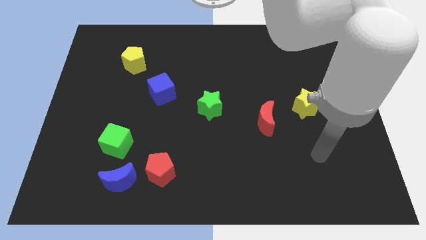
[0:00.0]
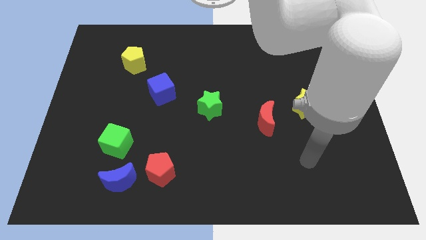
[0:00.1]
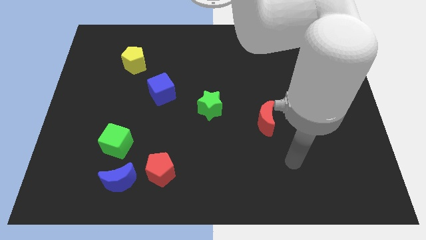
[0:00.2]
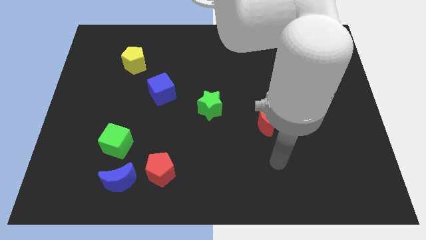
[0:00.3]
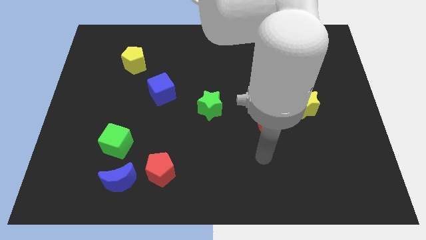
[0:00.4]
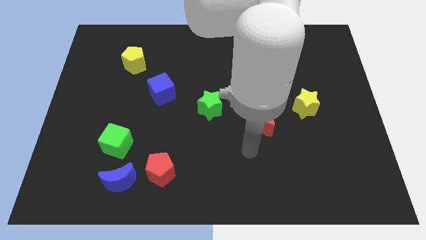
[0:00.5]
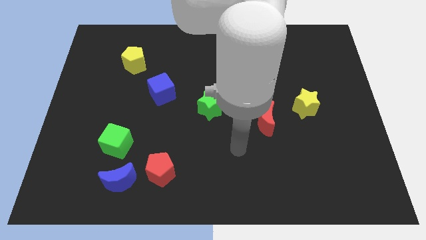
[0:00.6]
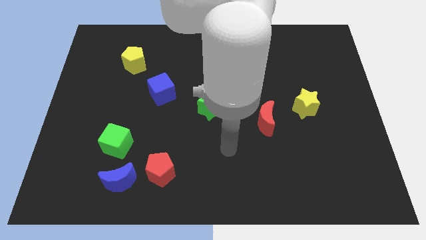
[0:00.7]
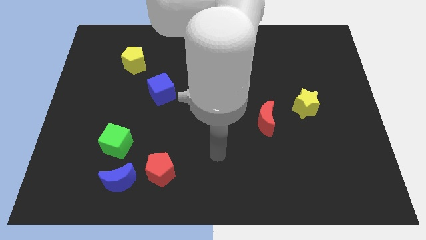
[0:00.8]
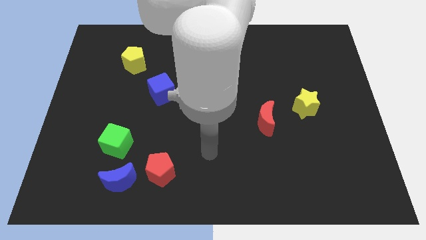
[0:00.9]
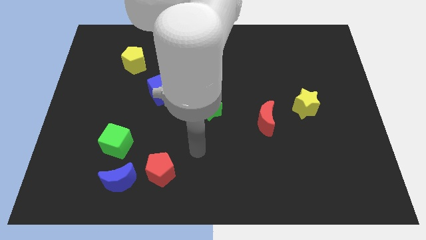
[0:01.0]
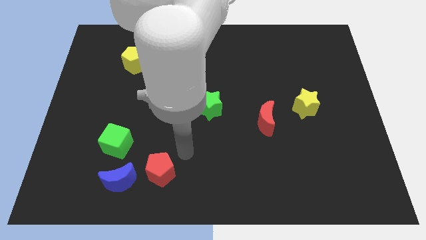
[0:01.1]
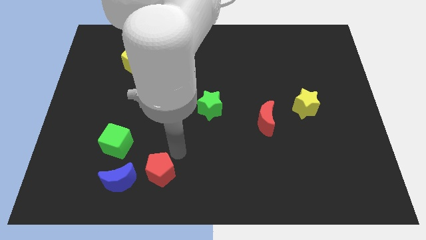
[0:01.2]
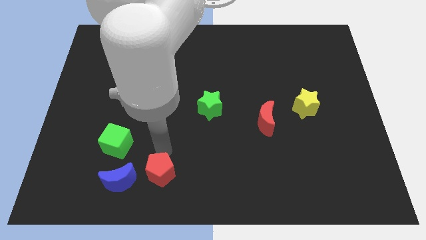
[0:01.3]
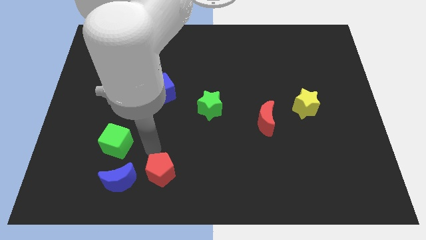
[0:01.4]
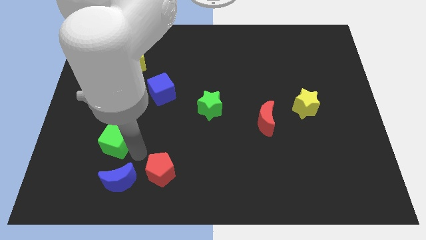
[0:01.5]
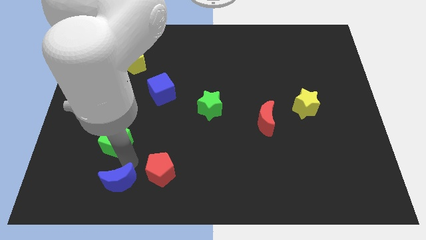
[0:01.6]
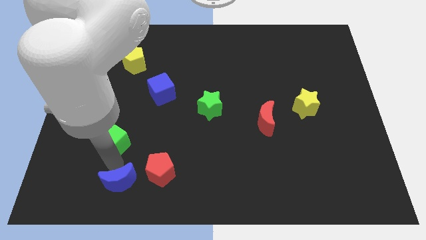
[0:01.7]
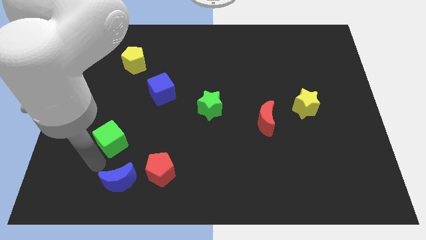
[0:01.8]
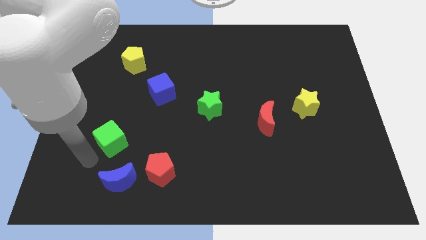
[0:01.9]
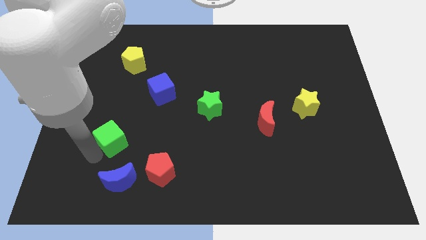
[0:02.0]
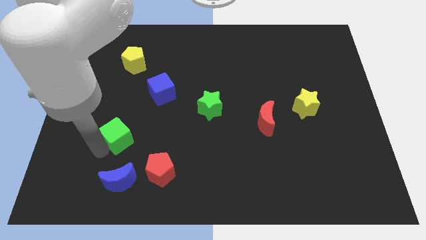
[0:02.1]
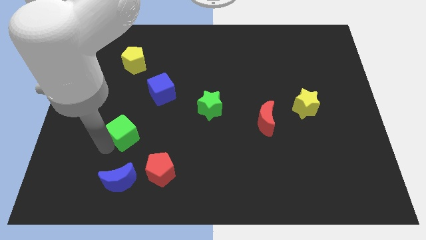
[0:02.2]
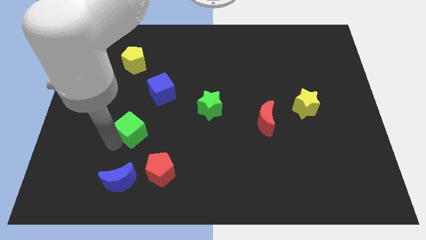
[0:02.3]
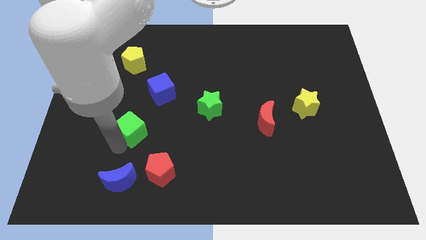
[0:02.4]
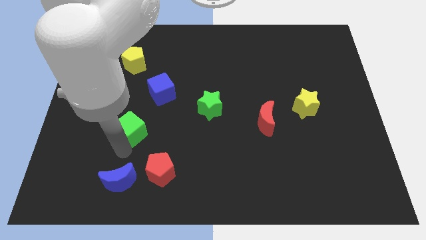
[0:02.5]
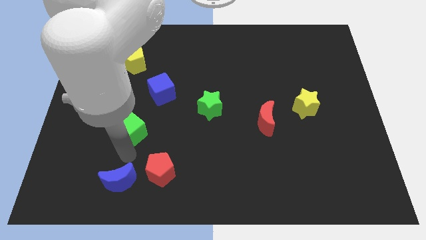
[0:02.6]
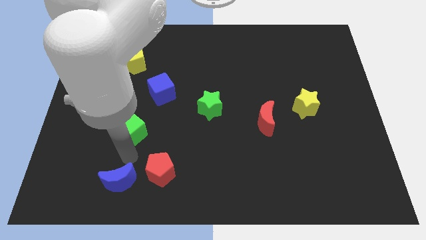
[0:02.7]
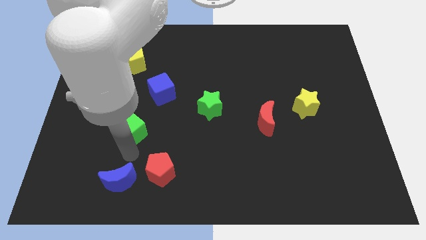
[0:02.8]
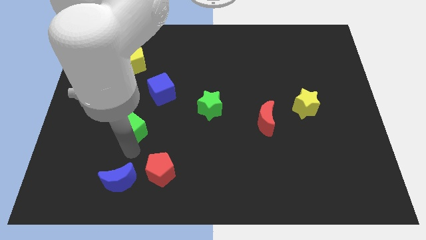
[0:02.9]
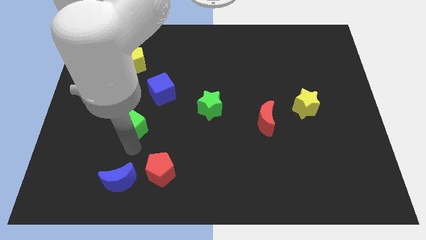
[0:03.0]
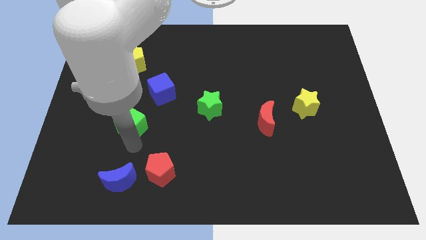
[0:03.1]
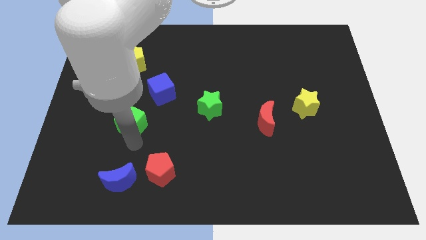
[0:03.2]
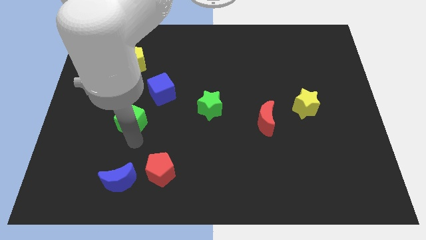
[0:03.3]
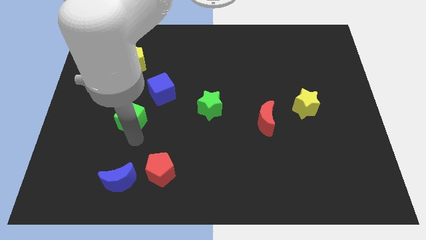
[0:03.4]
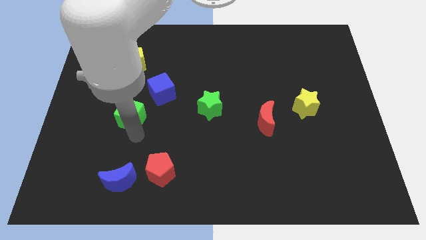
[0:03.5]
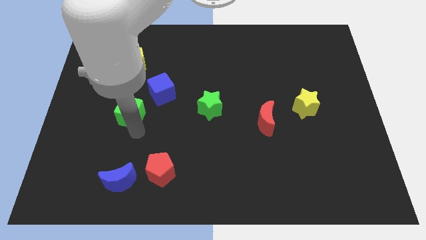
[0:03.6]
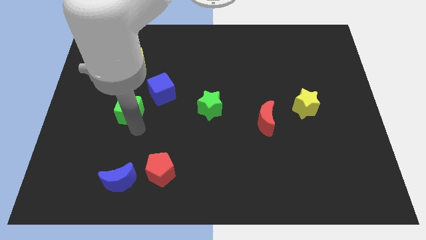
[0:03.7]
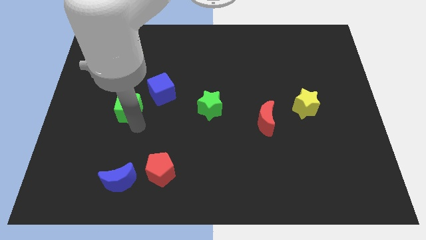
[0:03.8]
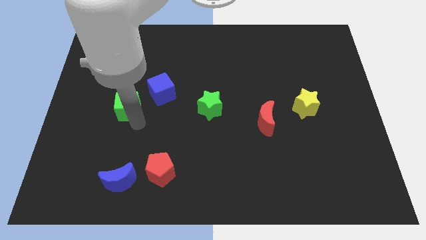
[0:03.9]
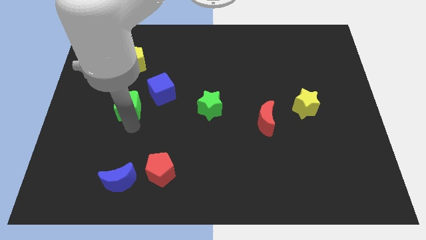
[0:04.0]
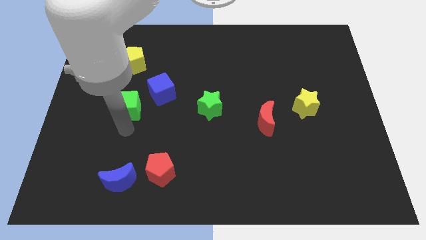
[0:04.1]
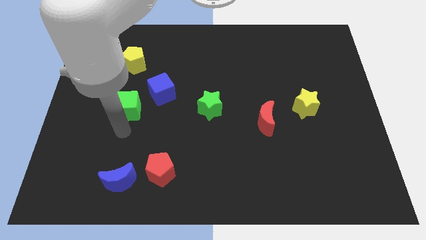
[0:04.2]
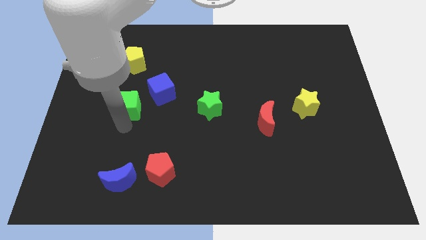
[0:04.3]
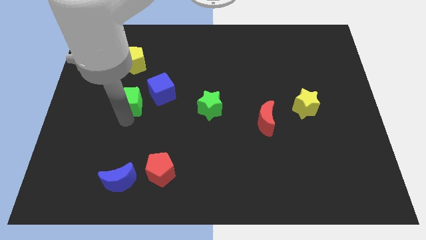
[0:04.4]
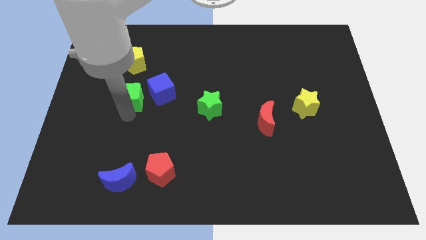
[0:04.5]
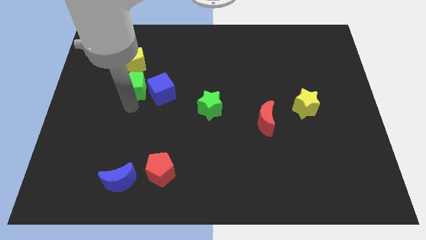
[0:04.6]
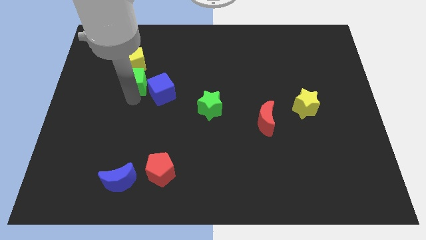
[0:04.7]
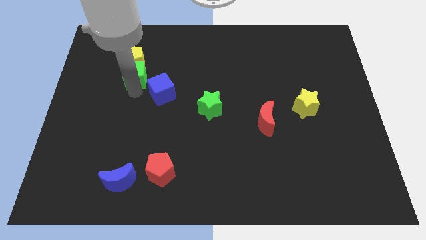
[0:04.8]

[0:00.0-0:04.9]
push the green cube to the yellow pentagon

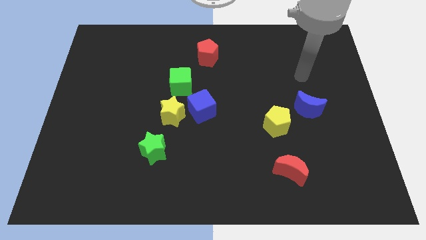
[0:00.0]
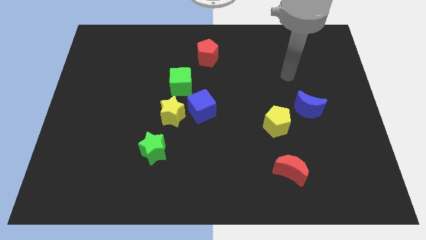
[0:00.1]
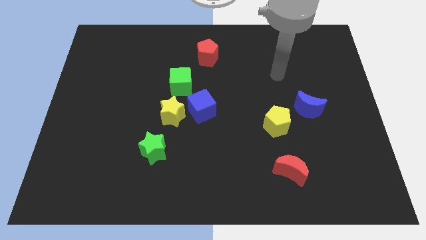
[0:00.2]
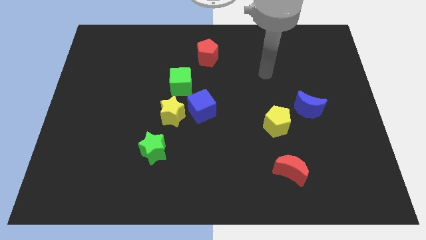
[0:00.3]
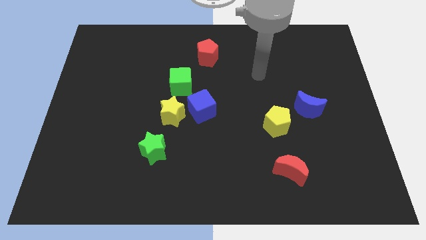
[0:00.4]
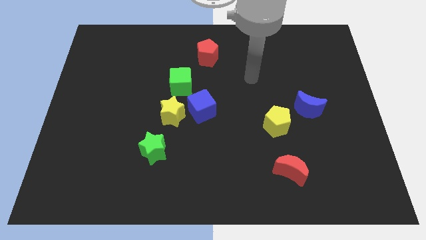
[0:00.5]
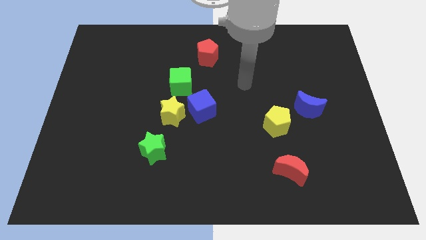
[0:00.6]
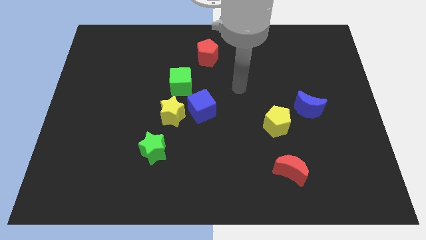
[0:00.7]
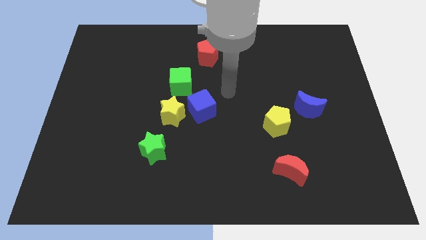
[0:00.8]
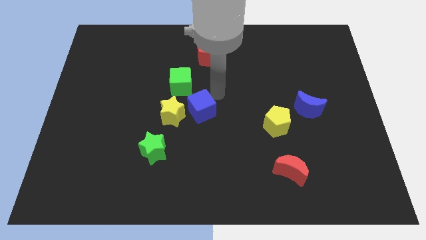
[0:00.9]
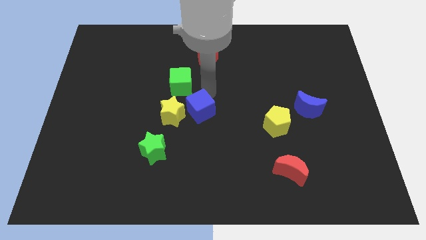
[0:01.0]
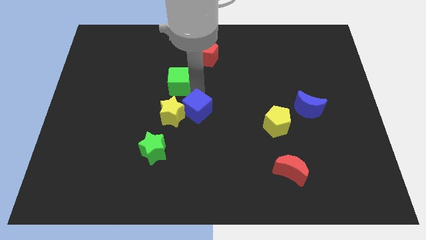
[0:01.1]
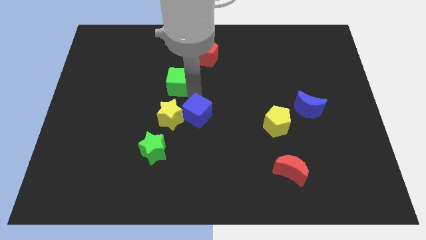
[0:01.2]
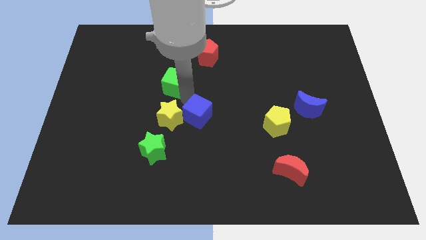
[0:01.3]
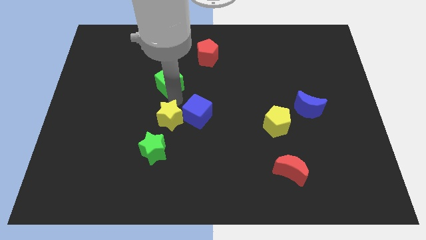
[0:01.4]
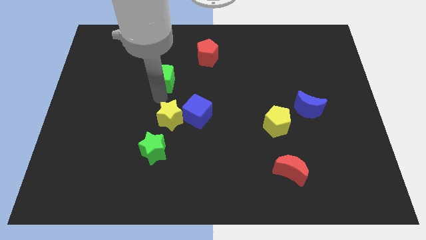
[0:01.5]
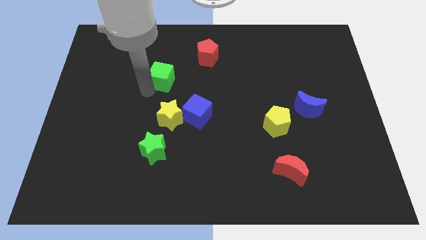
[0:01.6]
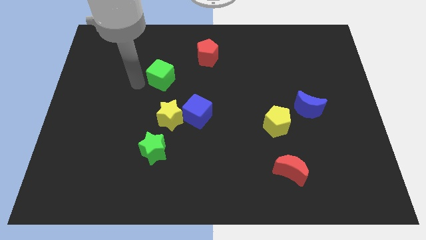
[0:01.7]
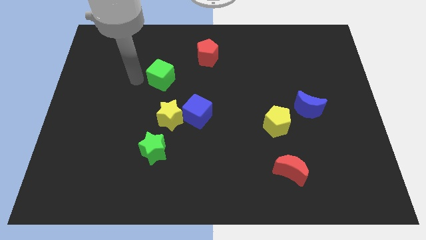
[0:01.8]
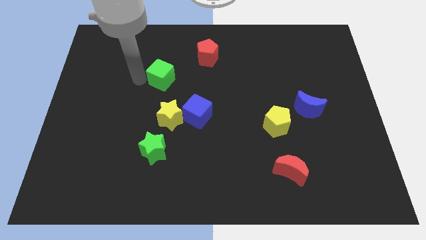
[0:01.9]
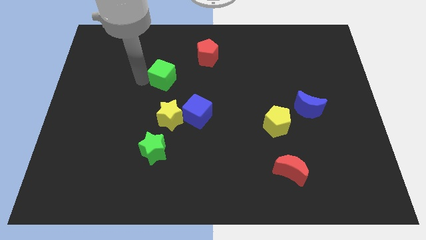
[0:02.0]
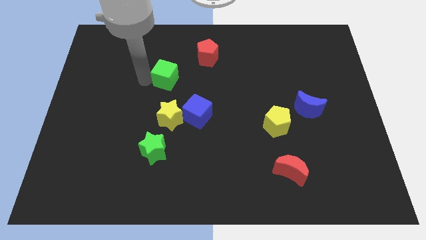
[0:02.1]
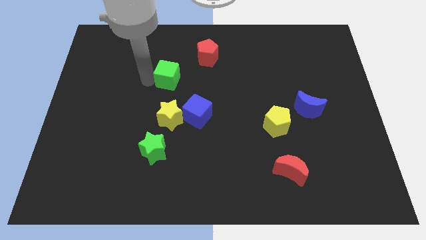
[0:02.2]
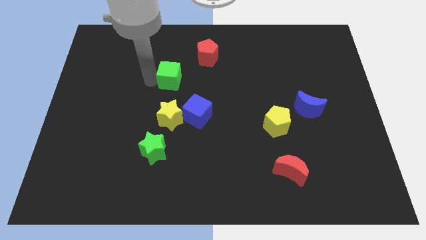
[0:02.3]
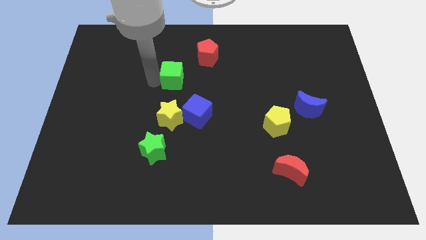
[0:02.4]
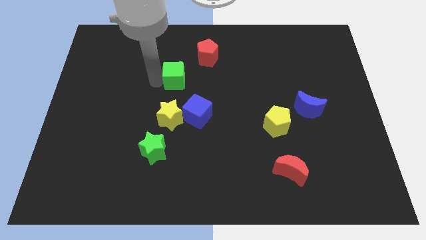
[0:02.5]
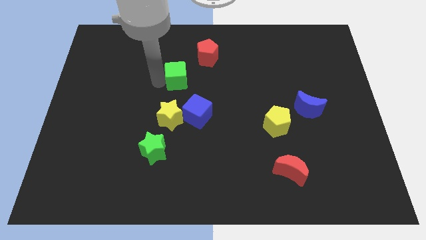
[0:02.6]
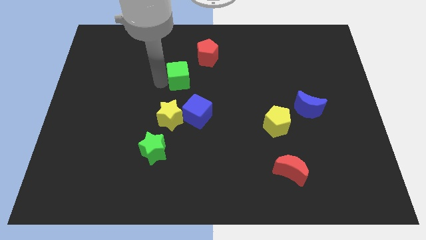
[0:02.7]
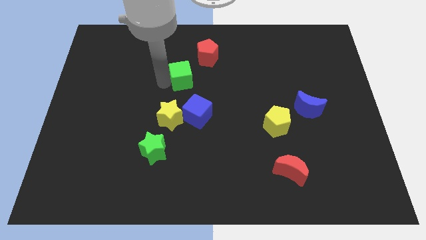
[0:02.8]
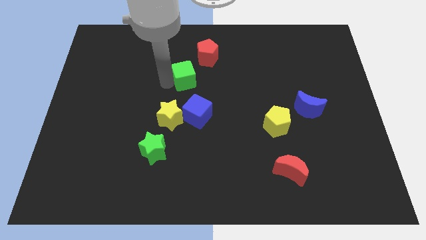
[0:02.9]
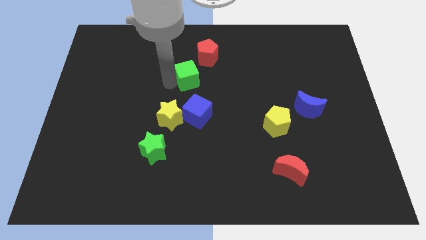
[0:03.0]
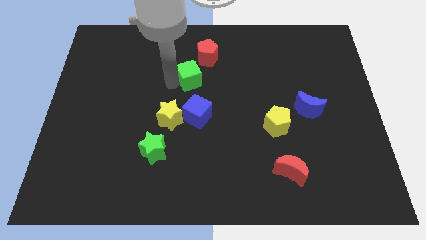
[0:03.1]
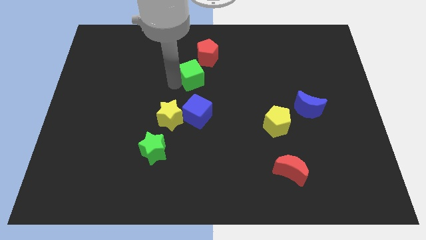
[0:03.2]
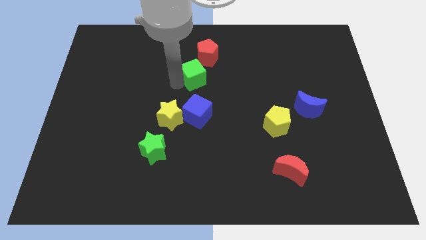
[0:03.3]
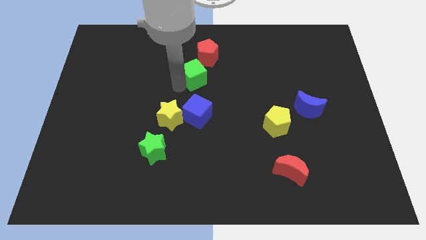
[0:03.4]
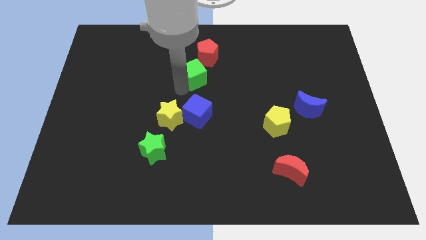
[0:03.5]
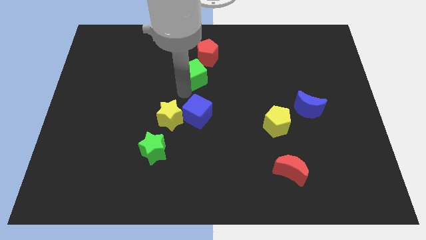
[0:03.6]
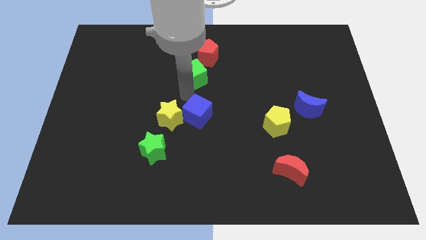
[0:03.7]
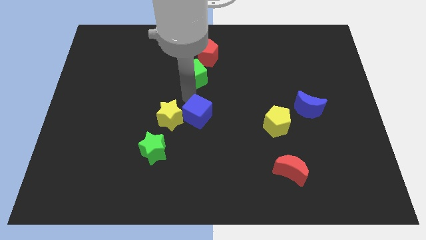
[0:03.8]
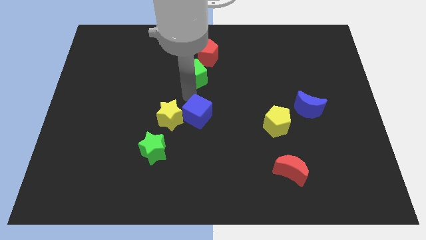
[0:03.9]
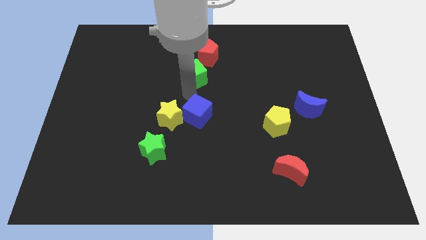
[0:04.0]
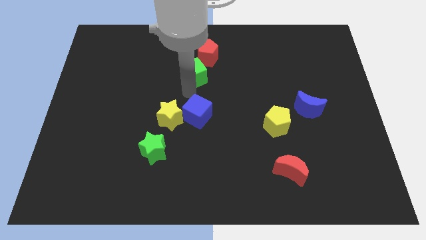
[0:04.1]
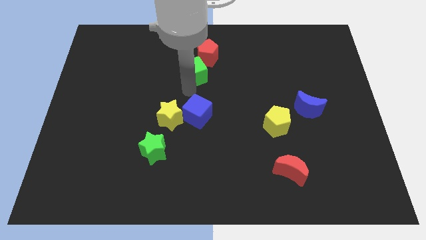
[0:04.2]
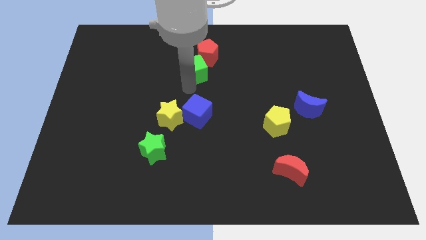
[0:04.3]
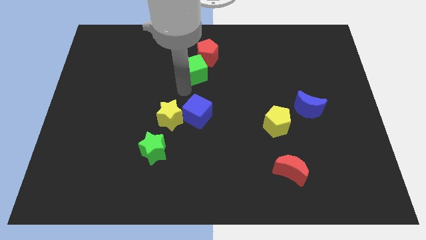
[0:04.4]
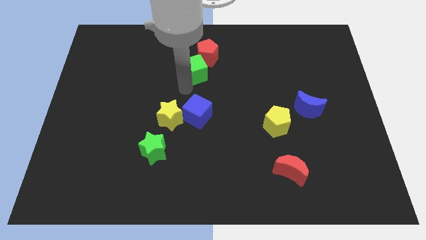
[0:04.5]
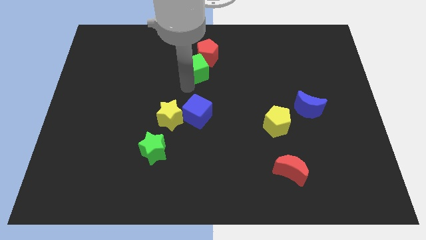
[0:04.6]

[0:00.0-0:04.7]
move the green cube next to the red pentagon
